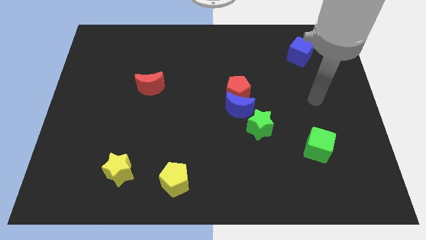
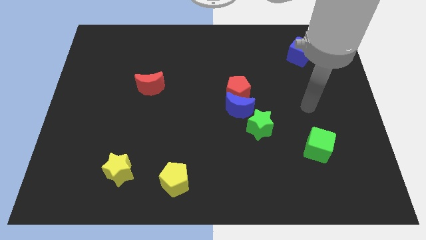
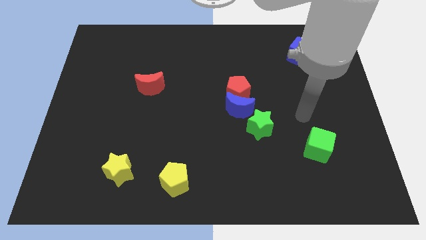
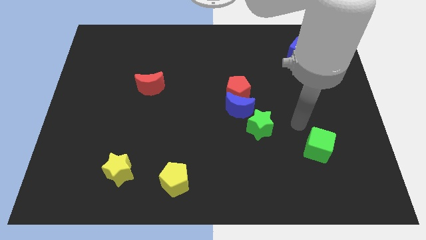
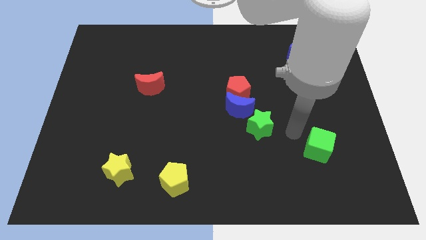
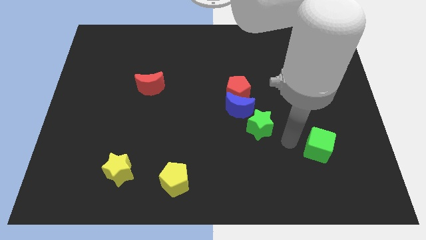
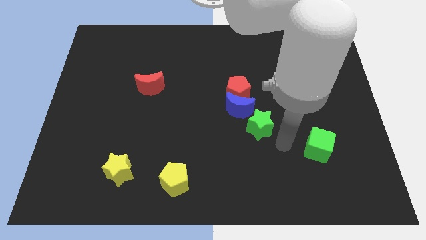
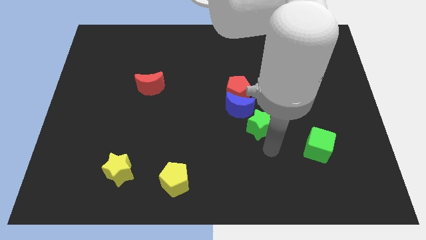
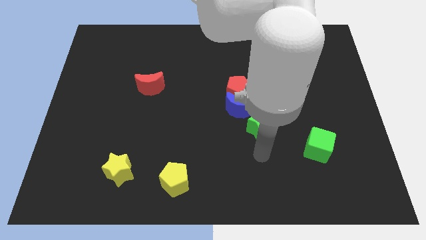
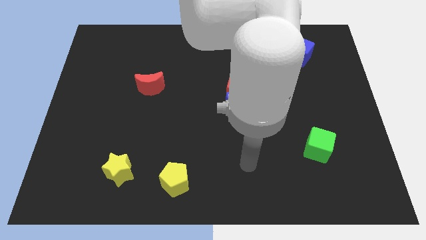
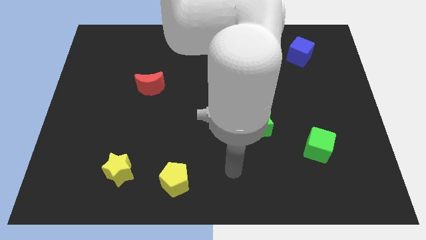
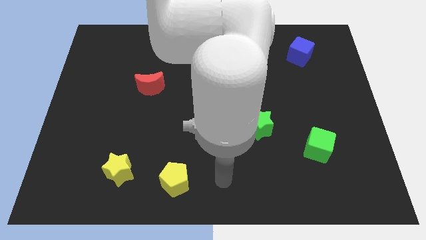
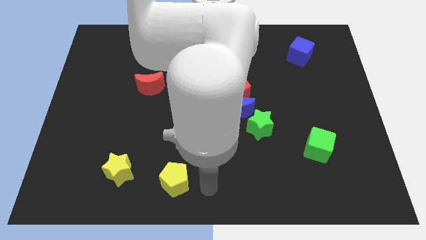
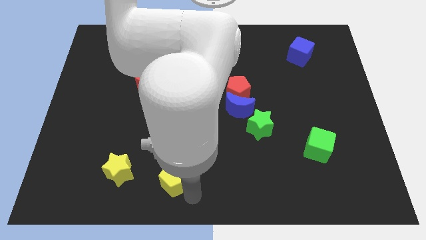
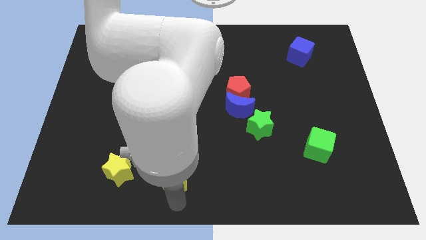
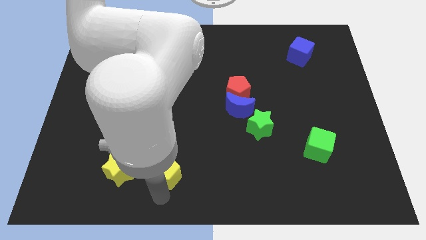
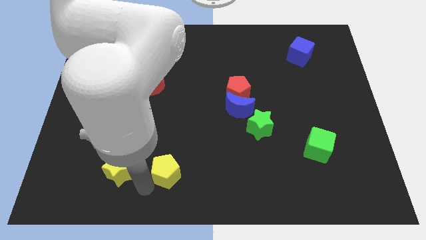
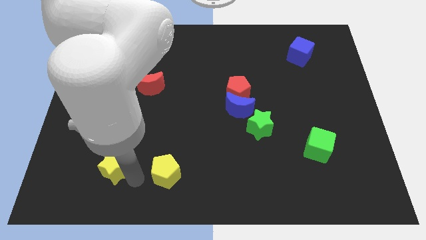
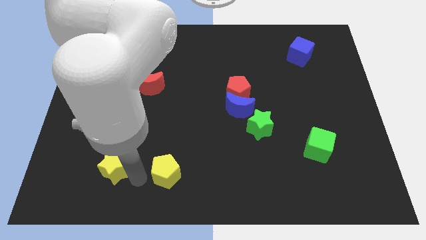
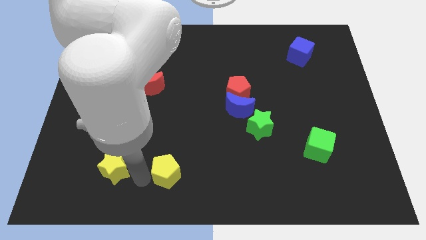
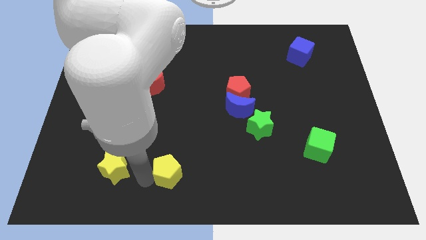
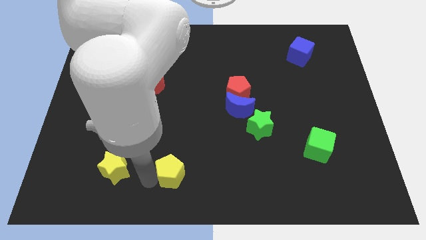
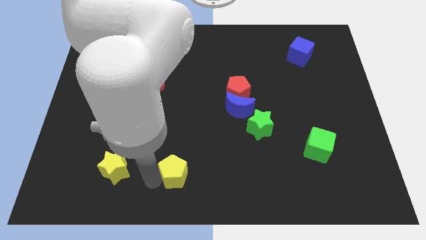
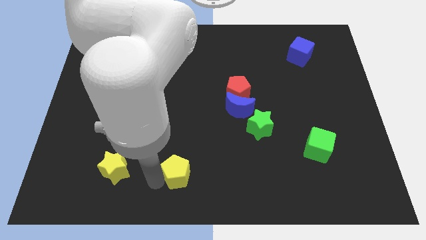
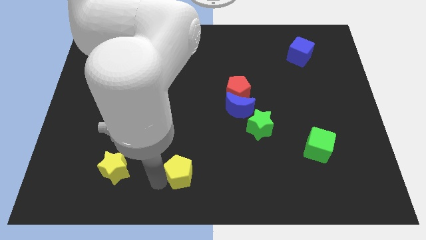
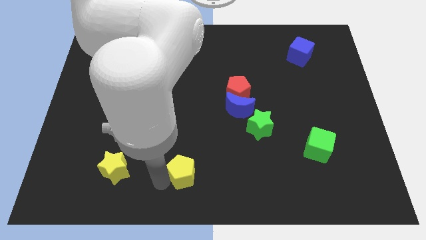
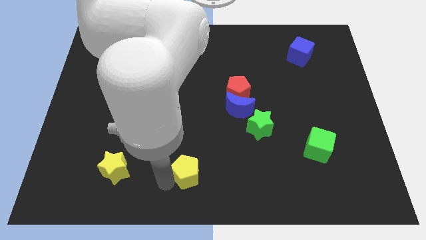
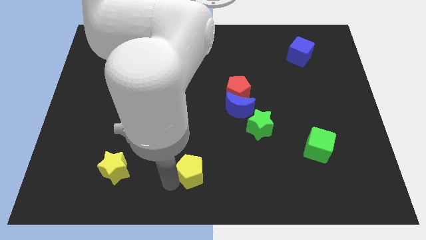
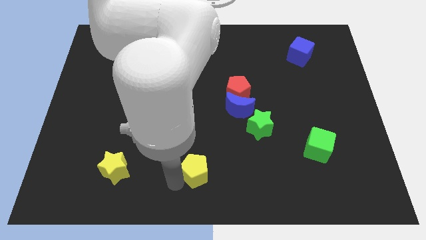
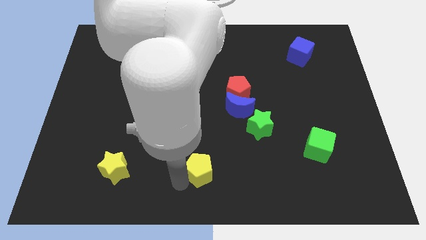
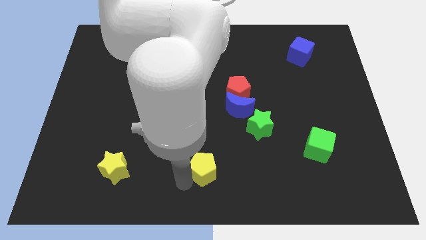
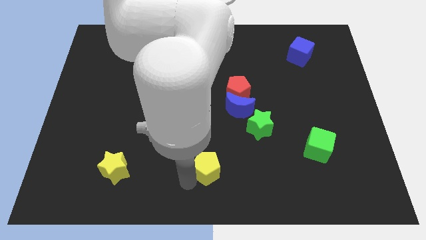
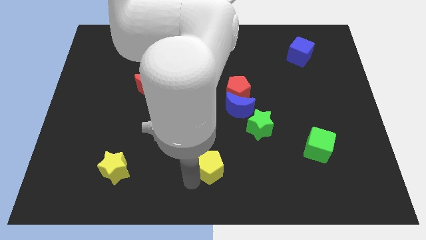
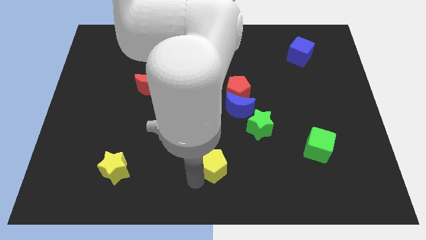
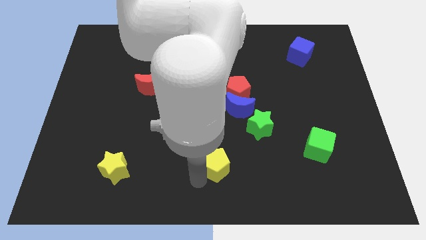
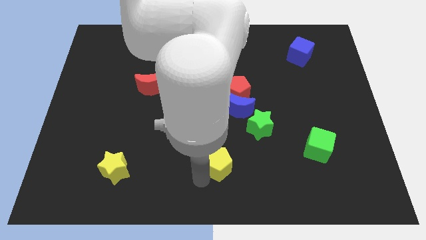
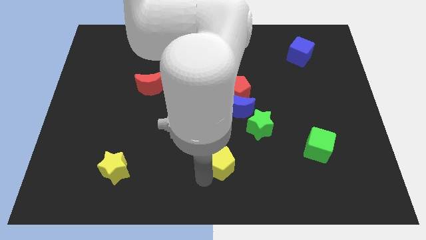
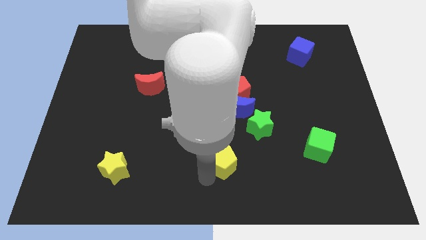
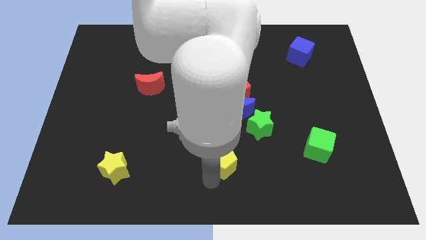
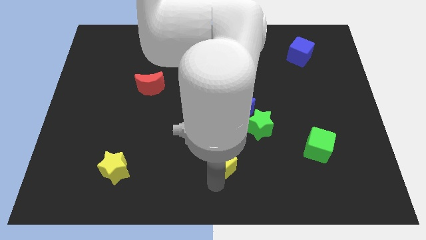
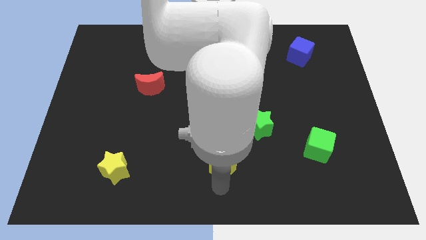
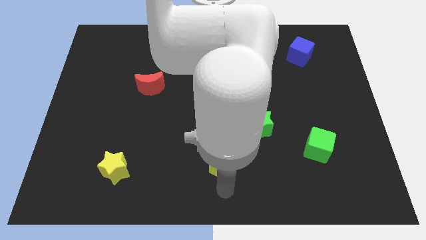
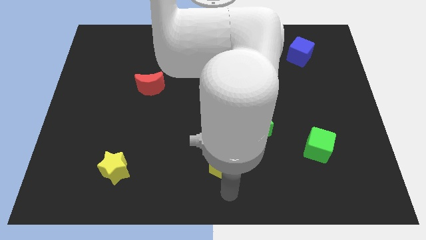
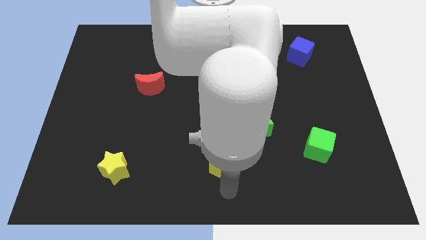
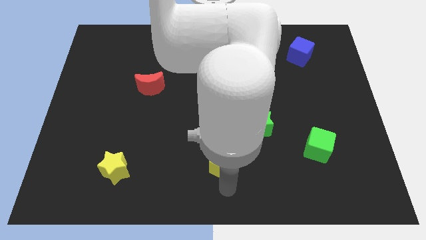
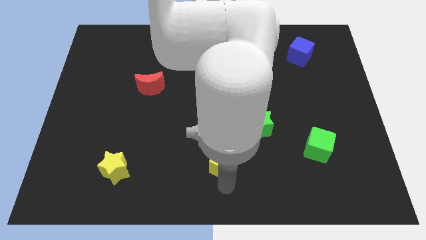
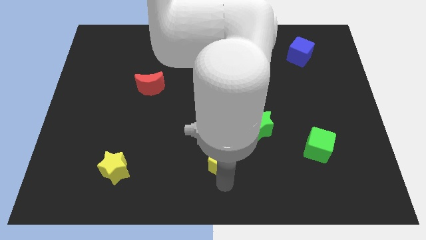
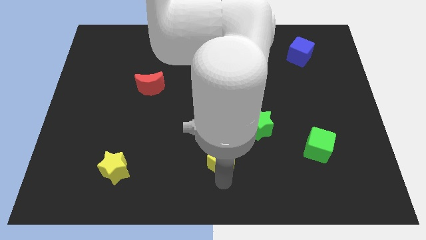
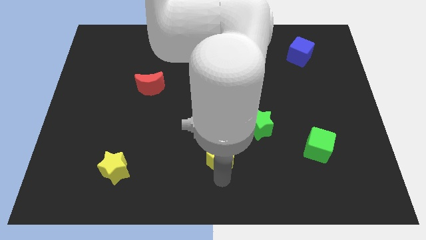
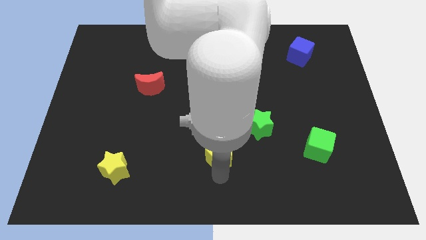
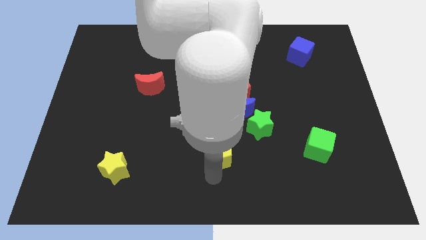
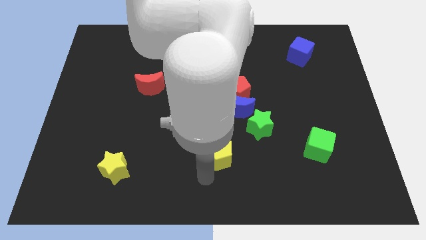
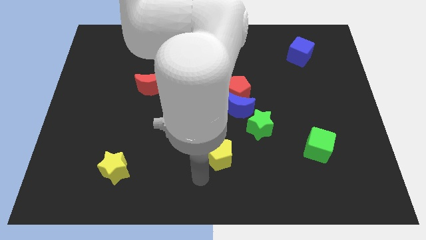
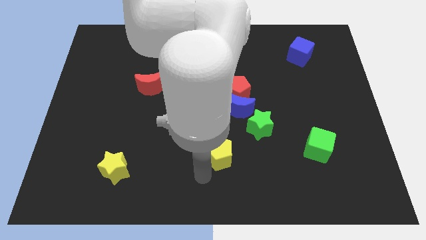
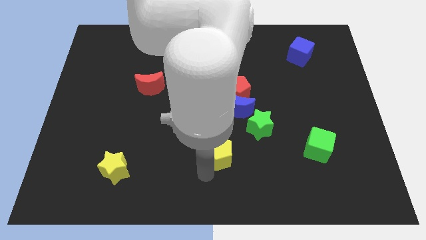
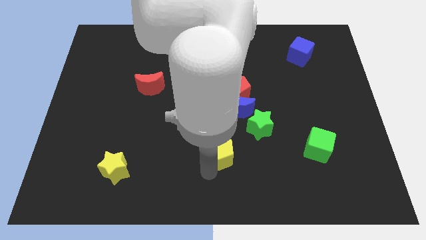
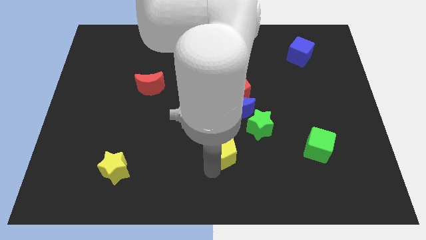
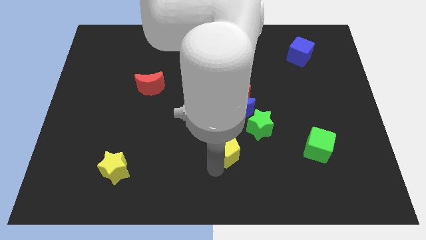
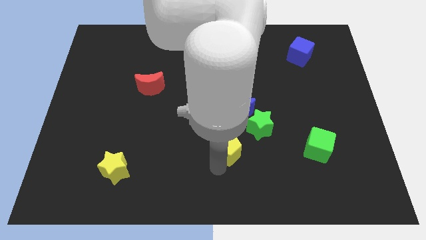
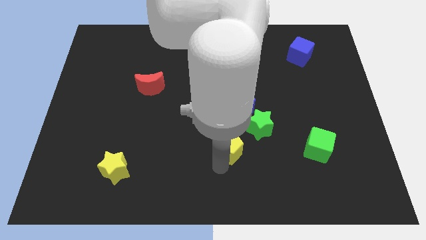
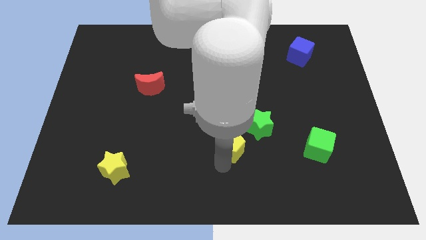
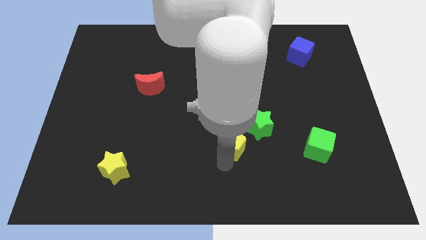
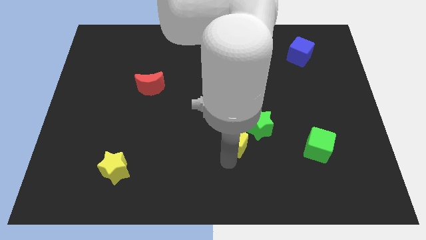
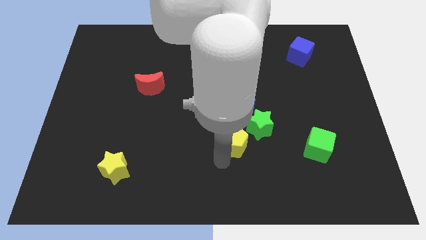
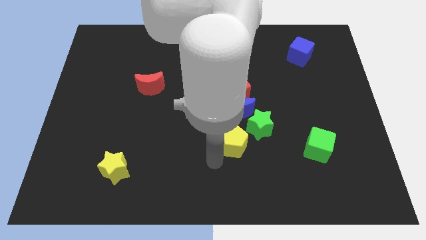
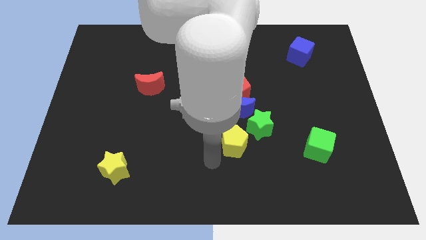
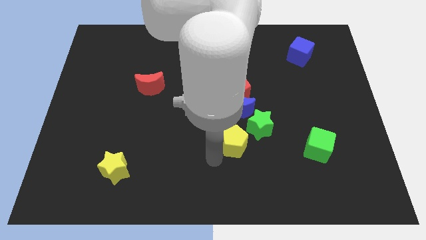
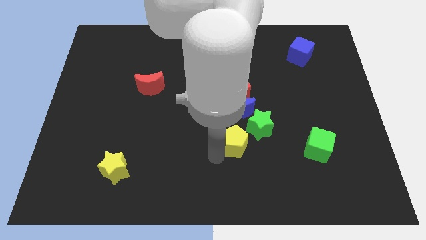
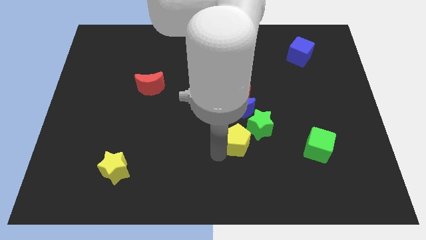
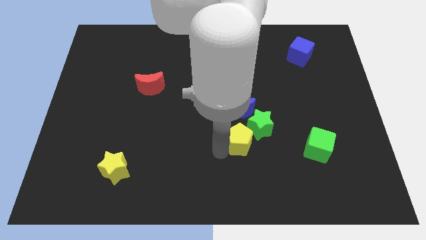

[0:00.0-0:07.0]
put the yellow pentagon next to the green star
